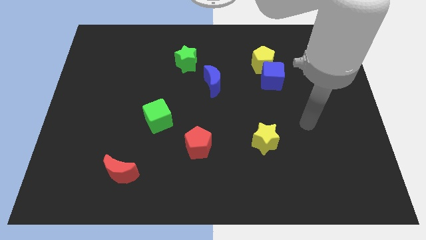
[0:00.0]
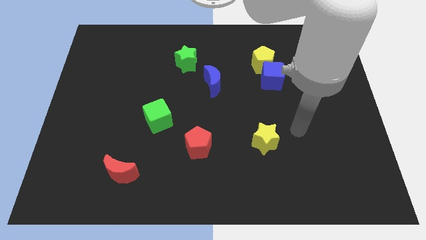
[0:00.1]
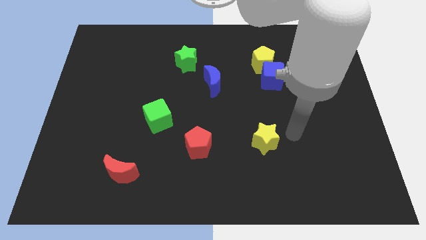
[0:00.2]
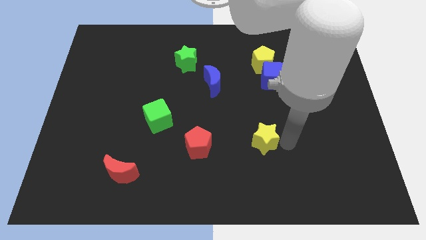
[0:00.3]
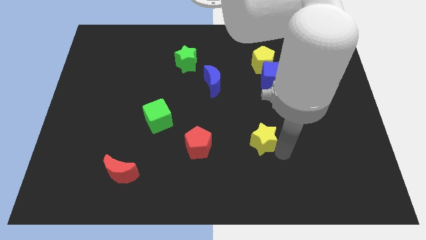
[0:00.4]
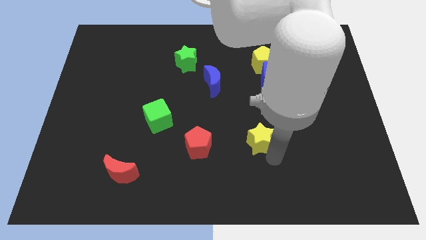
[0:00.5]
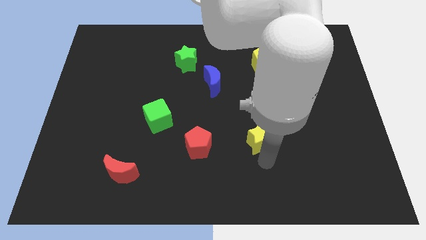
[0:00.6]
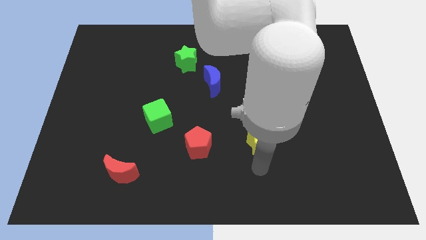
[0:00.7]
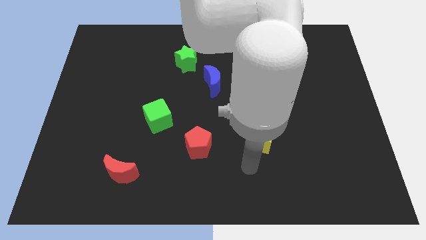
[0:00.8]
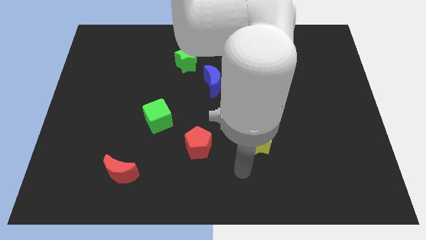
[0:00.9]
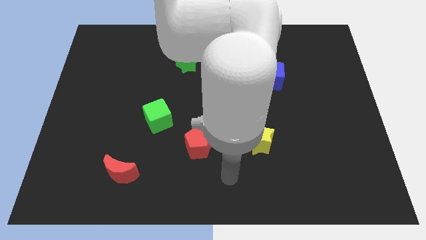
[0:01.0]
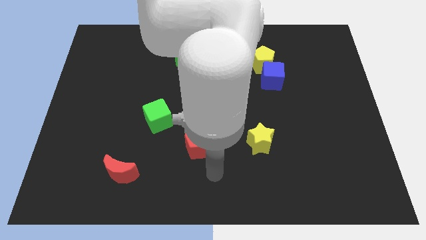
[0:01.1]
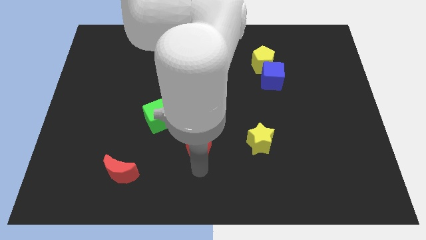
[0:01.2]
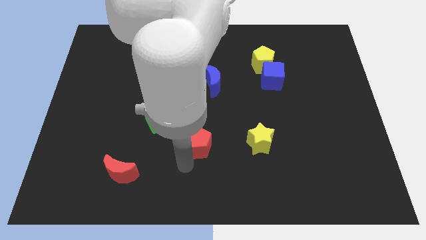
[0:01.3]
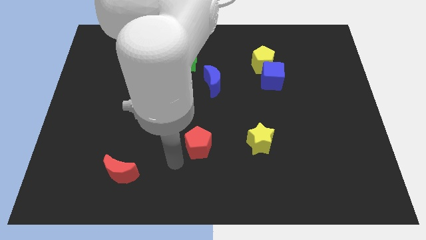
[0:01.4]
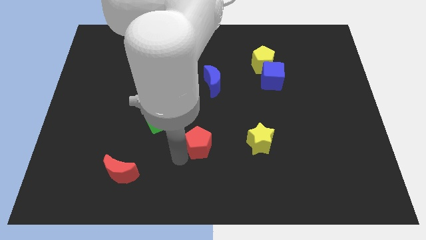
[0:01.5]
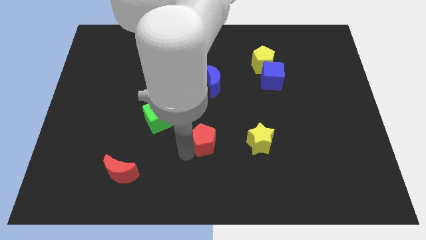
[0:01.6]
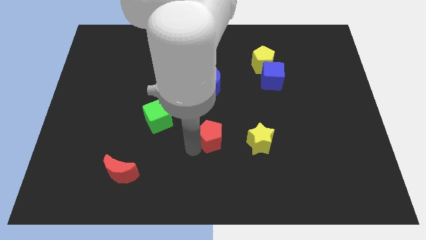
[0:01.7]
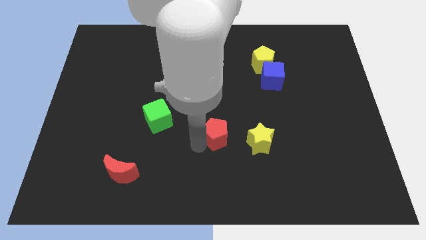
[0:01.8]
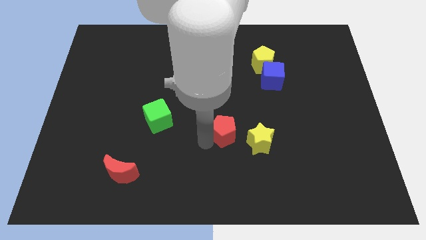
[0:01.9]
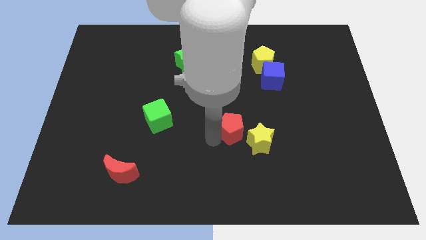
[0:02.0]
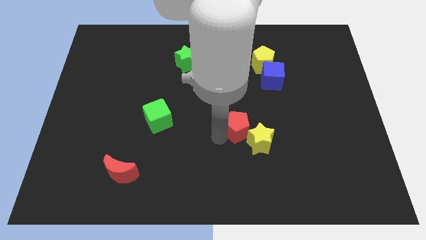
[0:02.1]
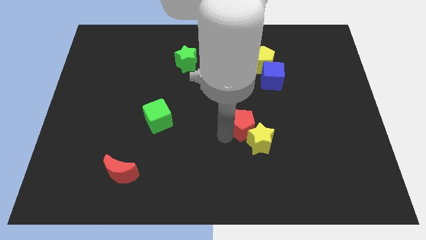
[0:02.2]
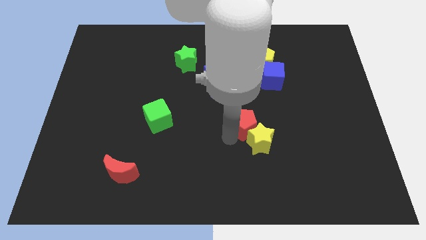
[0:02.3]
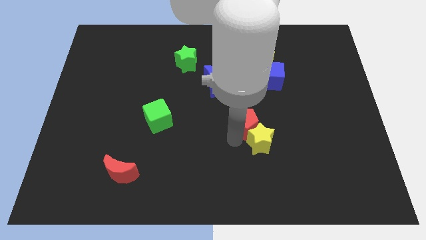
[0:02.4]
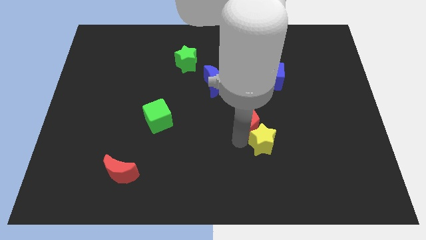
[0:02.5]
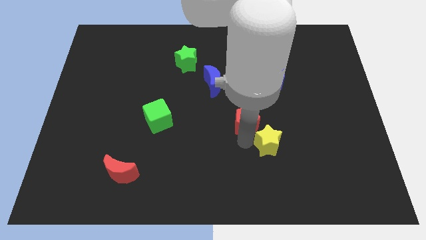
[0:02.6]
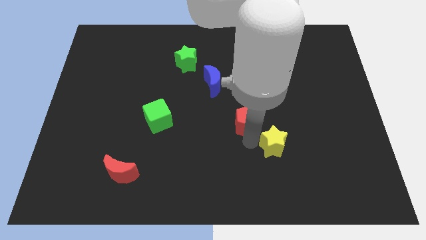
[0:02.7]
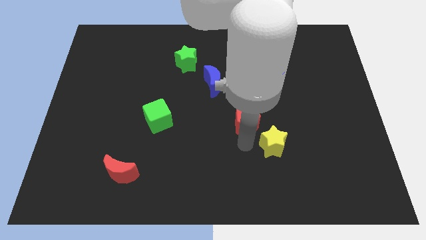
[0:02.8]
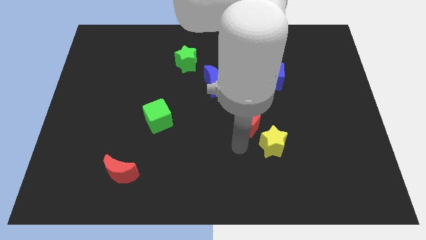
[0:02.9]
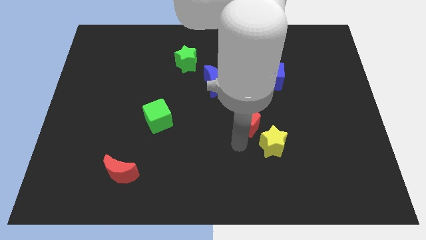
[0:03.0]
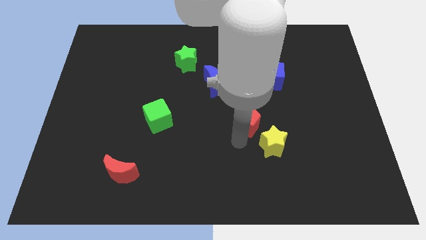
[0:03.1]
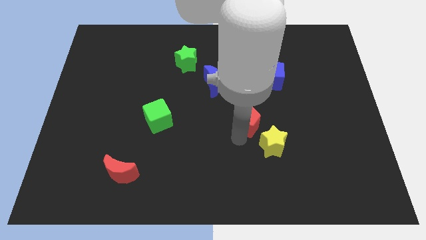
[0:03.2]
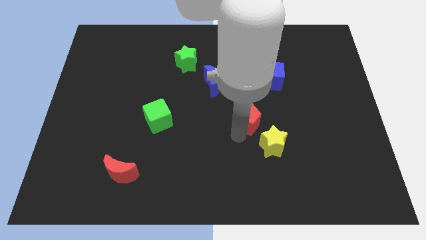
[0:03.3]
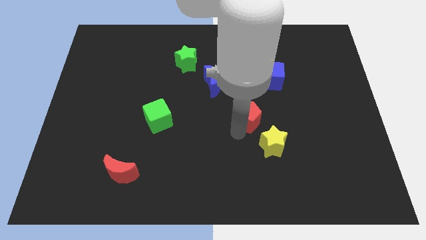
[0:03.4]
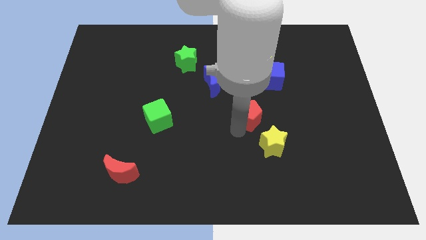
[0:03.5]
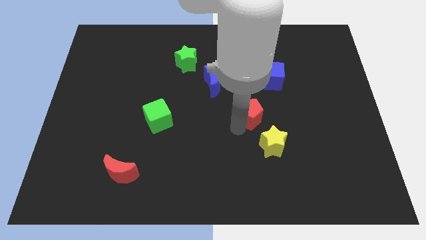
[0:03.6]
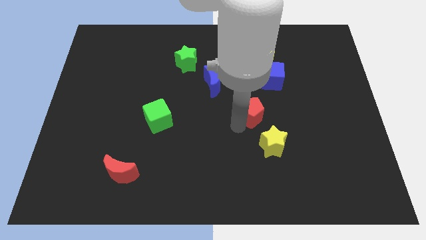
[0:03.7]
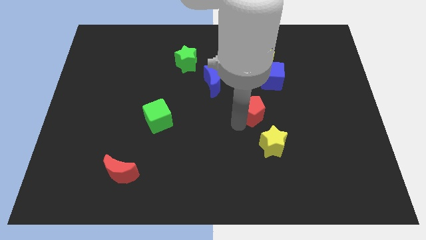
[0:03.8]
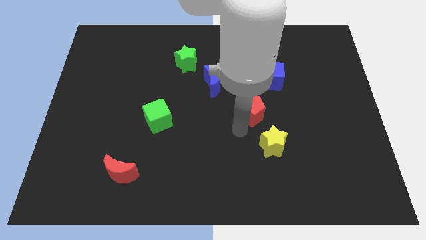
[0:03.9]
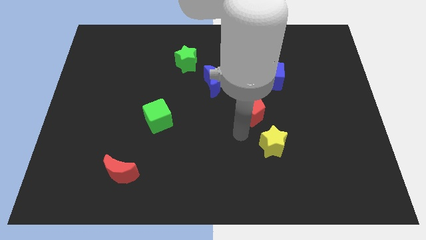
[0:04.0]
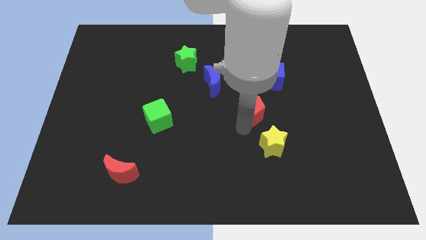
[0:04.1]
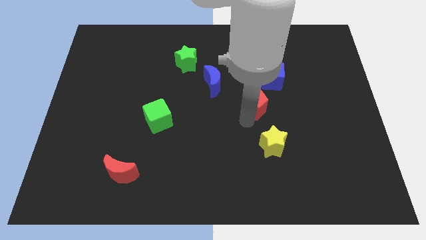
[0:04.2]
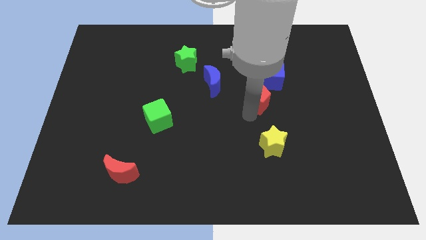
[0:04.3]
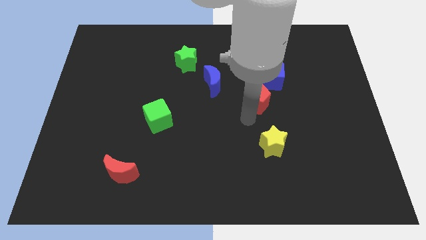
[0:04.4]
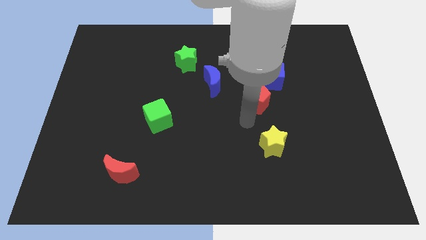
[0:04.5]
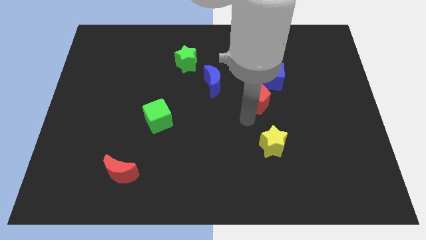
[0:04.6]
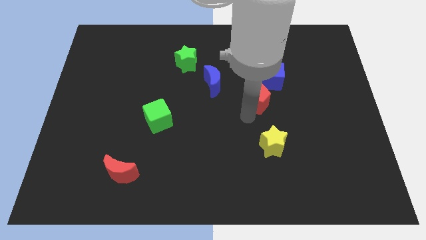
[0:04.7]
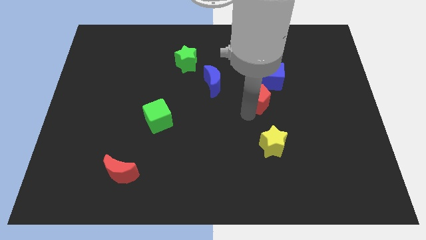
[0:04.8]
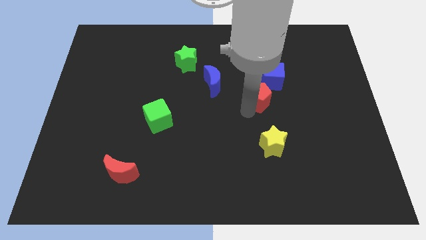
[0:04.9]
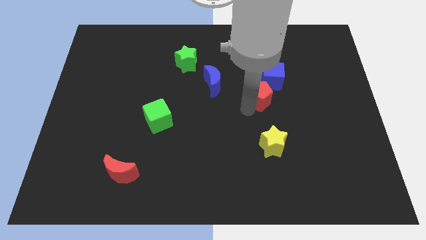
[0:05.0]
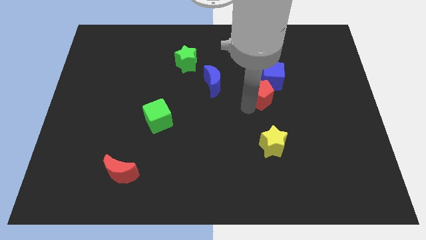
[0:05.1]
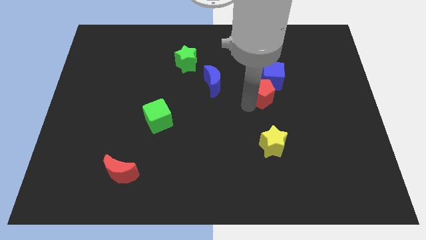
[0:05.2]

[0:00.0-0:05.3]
move the red pentagon to the blue cube

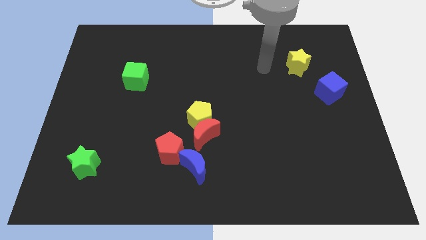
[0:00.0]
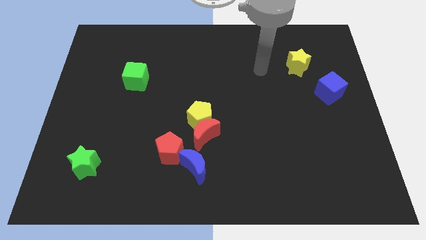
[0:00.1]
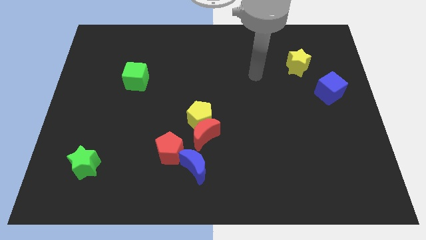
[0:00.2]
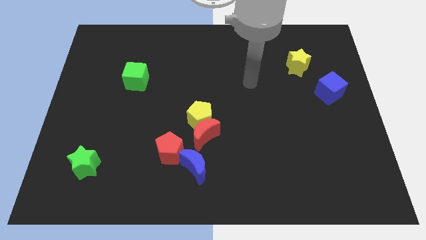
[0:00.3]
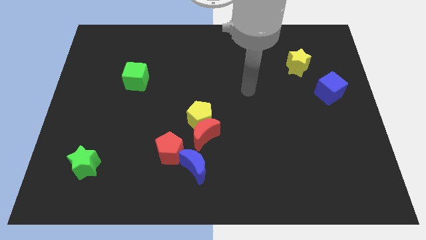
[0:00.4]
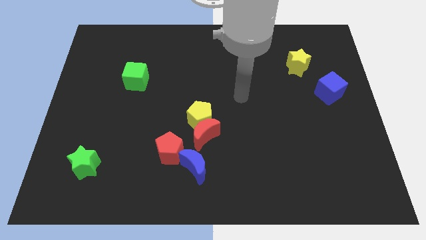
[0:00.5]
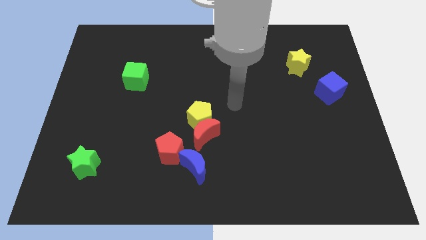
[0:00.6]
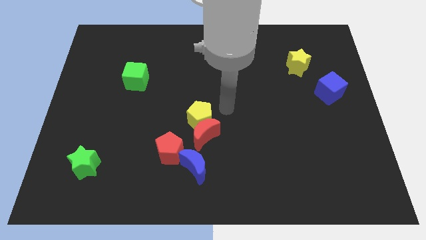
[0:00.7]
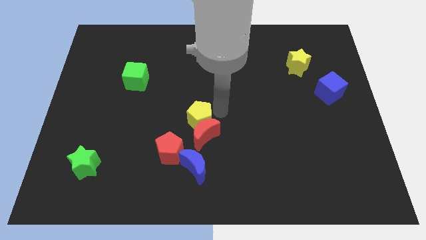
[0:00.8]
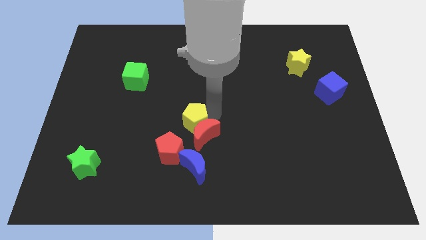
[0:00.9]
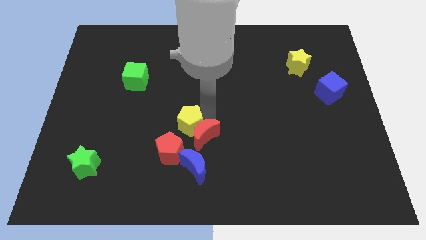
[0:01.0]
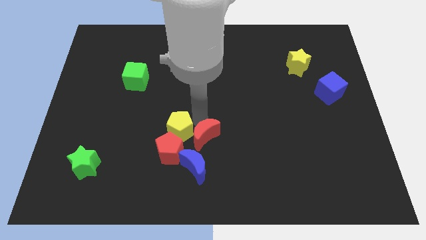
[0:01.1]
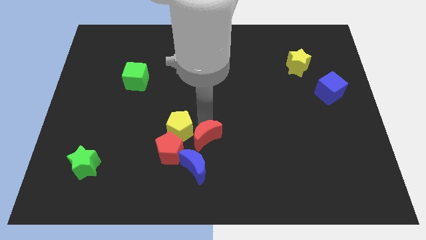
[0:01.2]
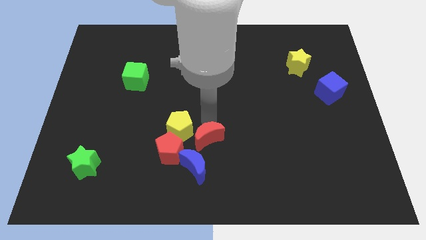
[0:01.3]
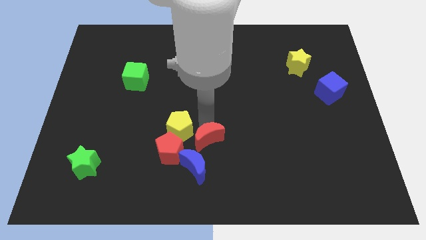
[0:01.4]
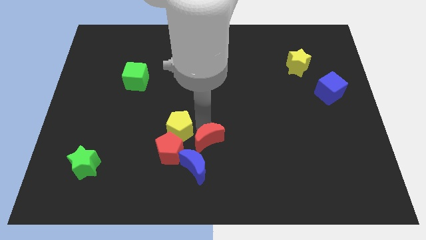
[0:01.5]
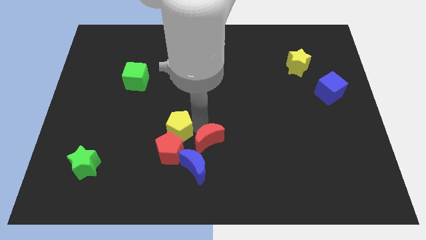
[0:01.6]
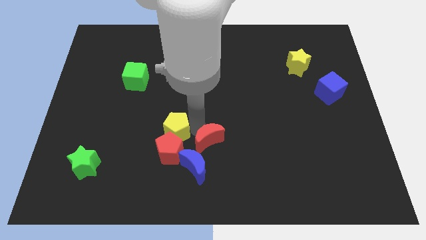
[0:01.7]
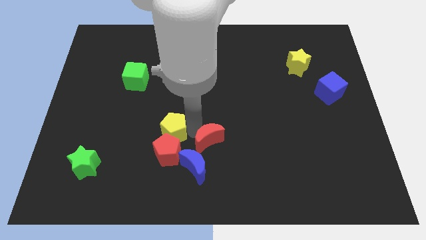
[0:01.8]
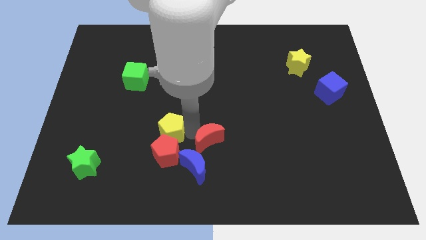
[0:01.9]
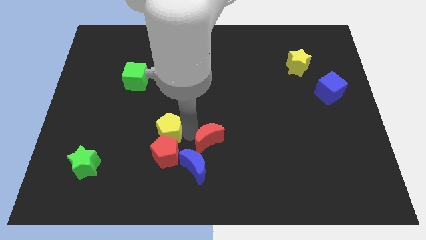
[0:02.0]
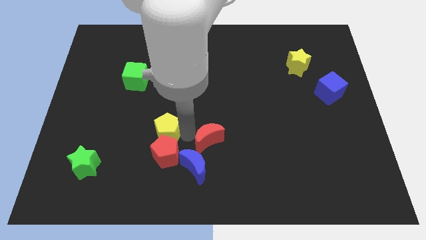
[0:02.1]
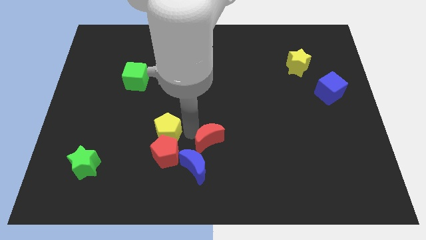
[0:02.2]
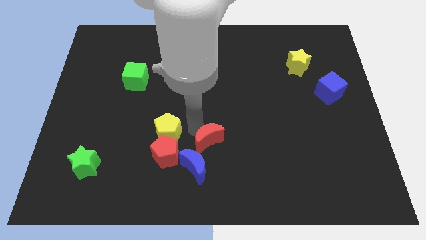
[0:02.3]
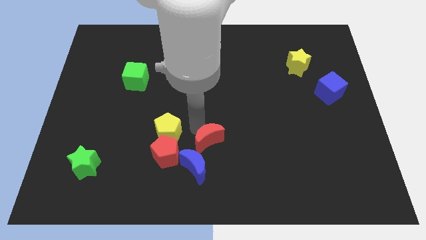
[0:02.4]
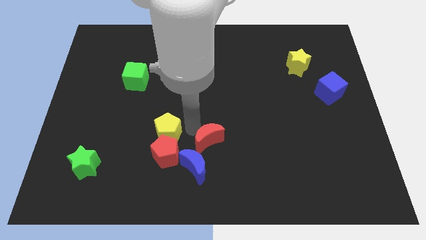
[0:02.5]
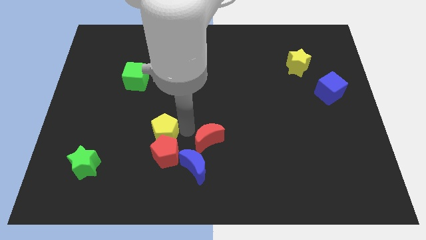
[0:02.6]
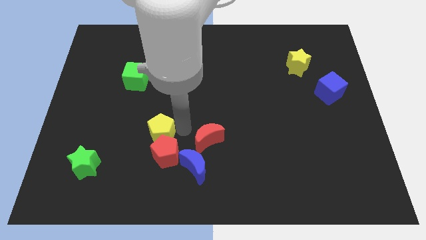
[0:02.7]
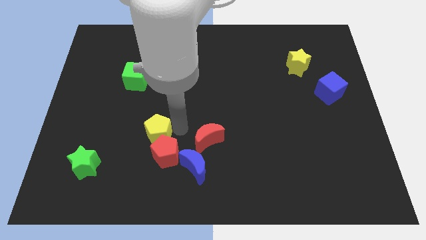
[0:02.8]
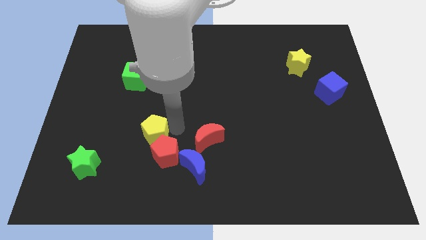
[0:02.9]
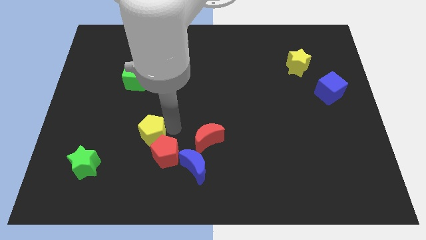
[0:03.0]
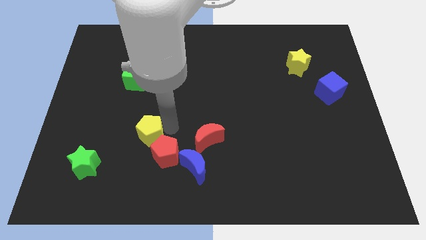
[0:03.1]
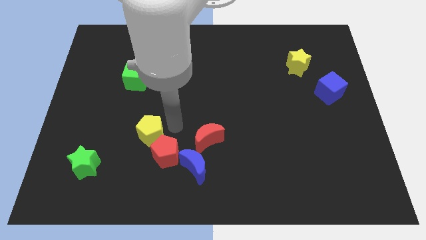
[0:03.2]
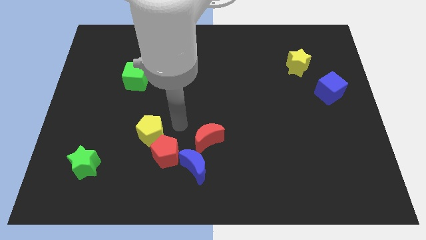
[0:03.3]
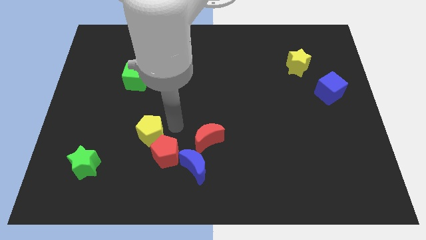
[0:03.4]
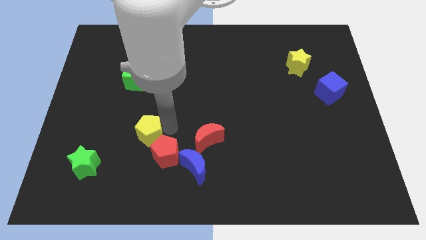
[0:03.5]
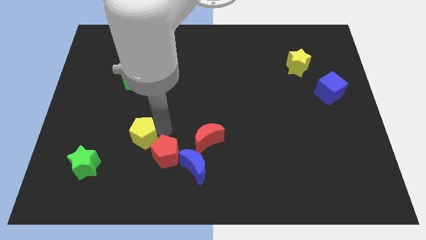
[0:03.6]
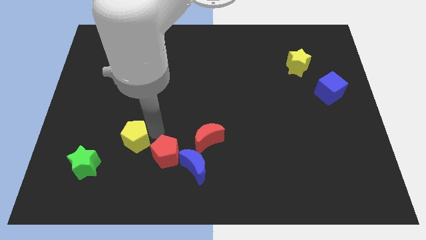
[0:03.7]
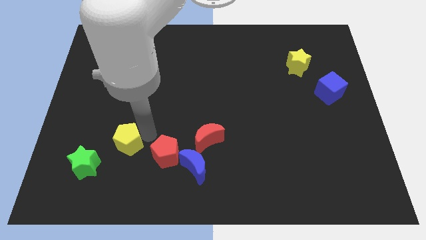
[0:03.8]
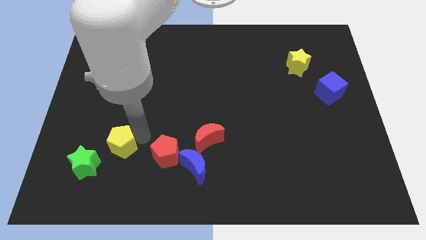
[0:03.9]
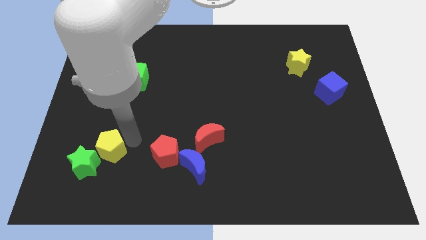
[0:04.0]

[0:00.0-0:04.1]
slide the yellow pentagon next to the green star
